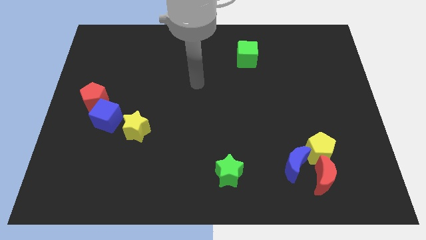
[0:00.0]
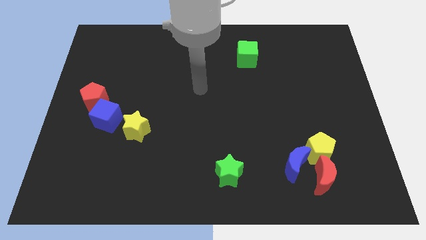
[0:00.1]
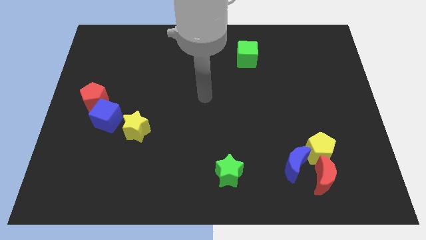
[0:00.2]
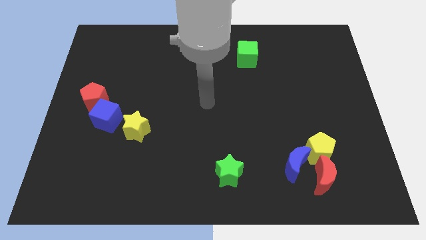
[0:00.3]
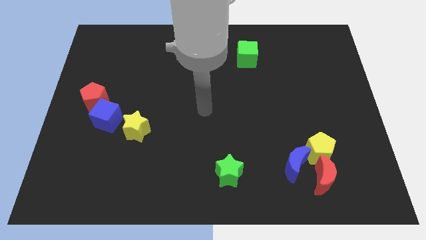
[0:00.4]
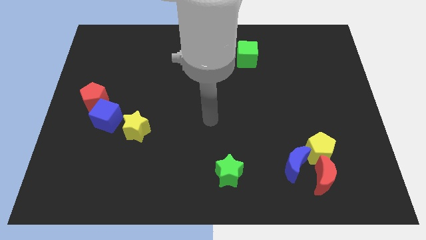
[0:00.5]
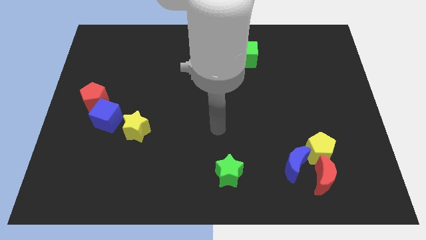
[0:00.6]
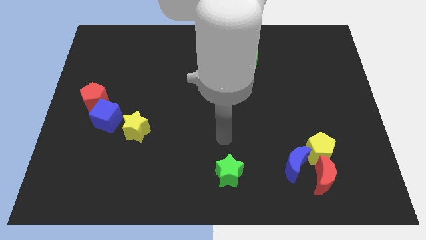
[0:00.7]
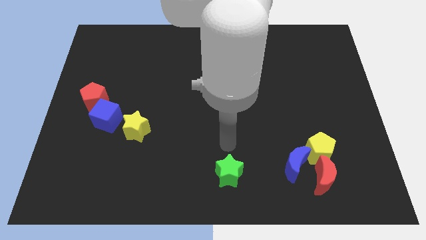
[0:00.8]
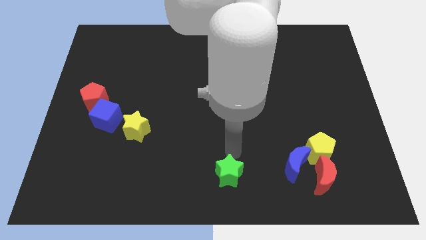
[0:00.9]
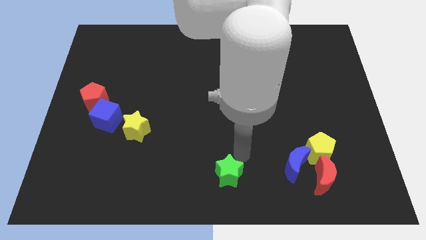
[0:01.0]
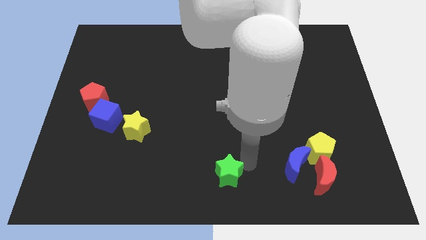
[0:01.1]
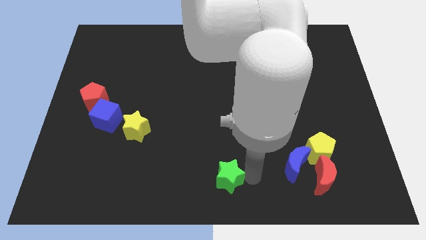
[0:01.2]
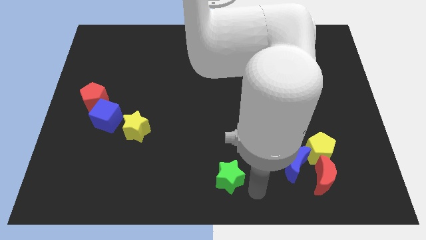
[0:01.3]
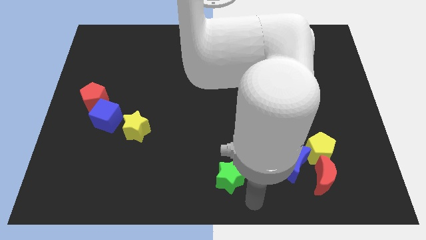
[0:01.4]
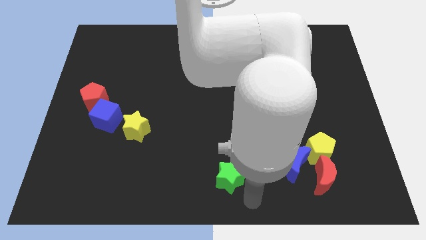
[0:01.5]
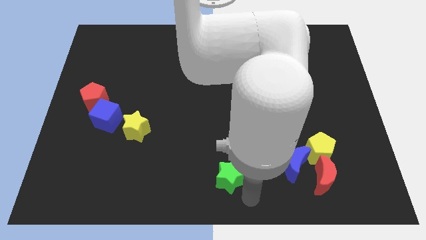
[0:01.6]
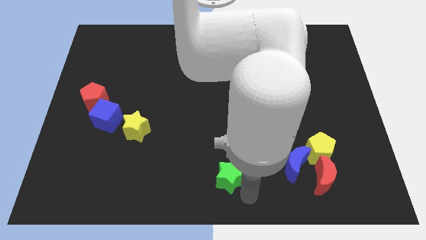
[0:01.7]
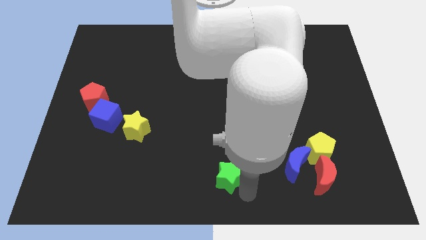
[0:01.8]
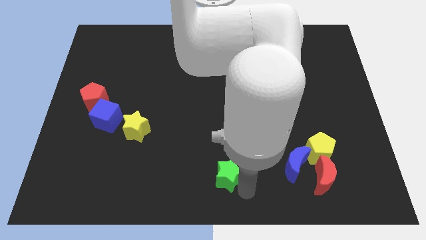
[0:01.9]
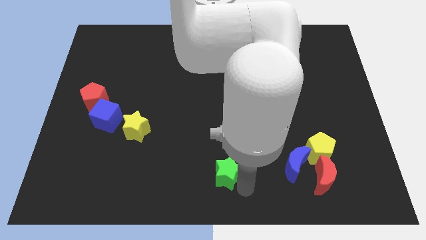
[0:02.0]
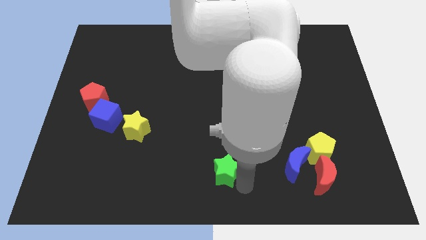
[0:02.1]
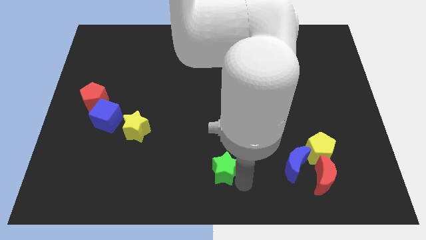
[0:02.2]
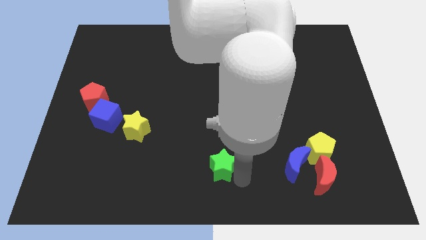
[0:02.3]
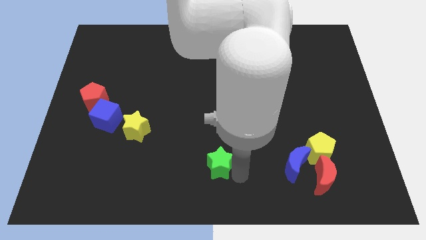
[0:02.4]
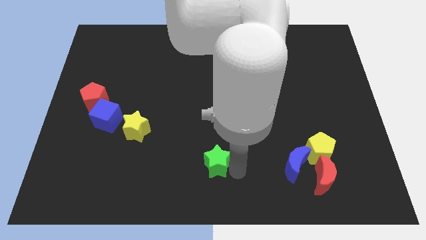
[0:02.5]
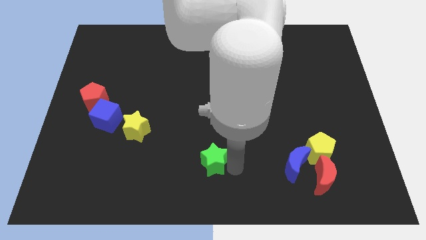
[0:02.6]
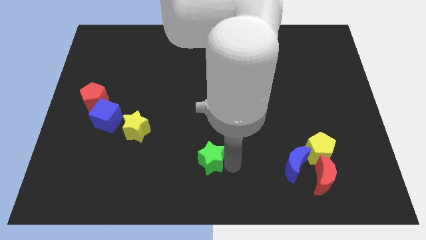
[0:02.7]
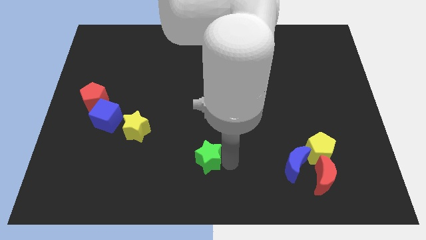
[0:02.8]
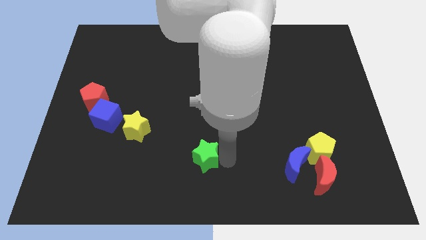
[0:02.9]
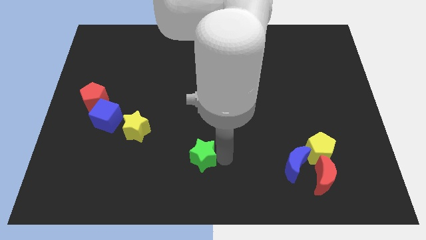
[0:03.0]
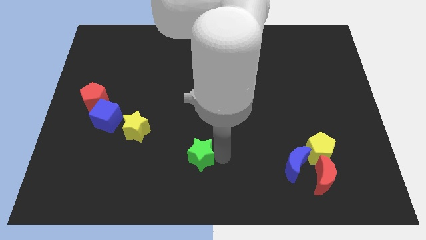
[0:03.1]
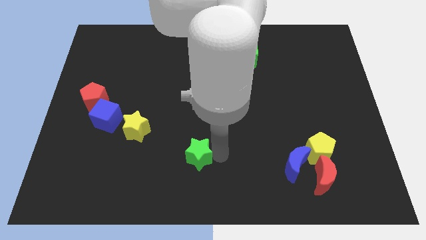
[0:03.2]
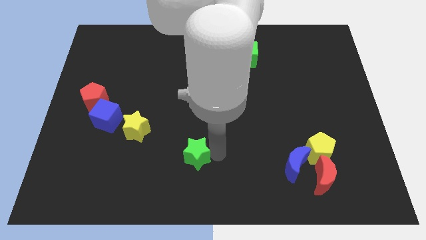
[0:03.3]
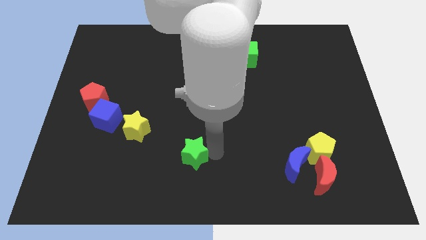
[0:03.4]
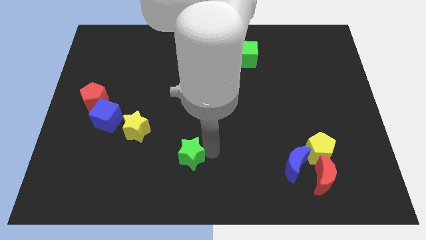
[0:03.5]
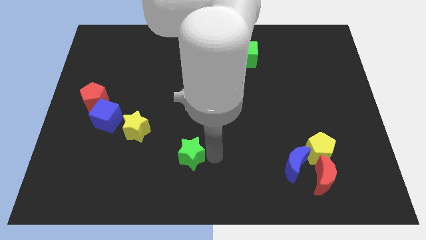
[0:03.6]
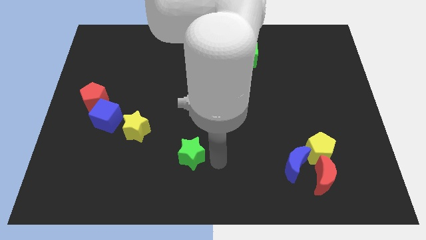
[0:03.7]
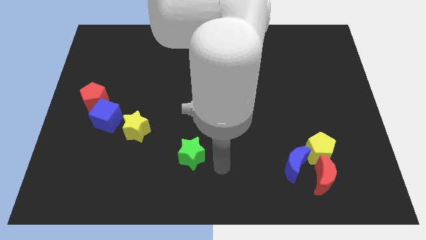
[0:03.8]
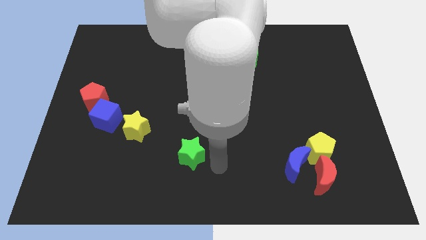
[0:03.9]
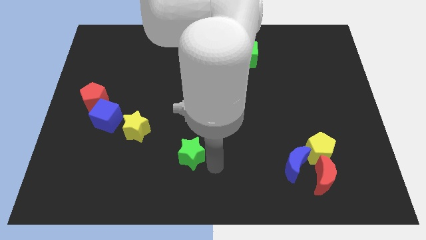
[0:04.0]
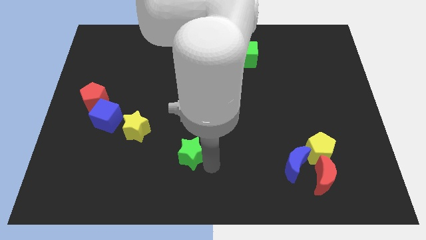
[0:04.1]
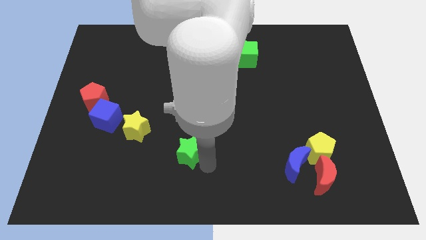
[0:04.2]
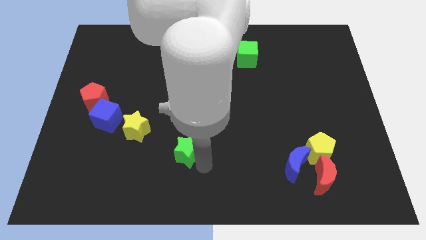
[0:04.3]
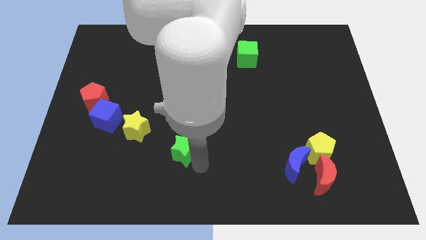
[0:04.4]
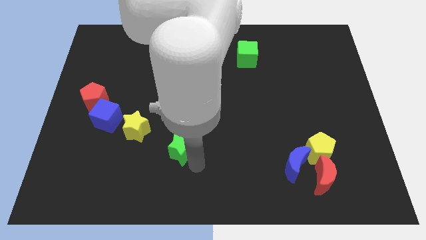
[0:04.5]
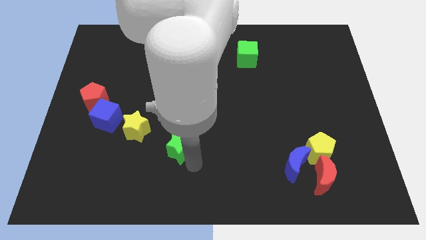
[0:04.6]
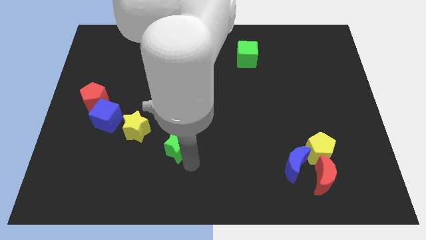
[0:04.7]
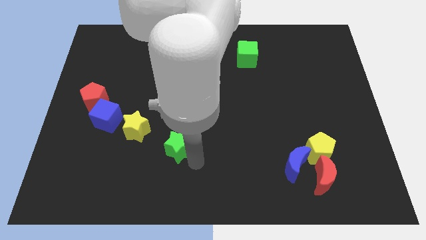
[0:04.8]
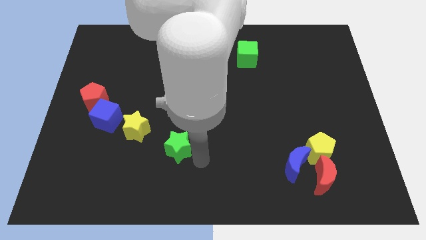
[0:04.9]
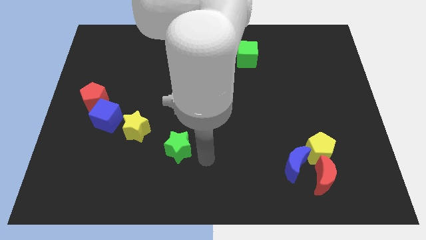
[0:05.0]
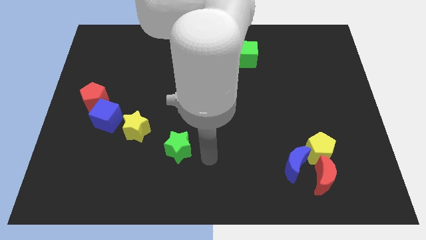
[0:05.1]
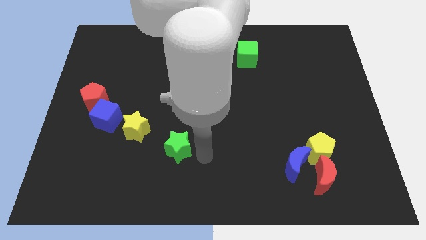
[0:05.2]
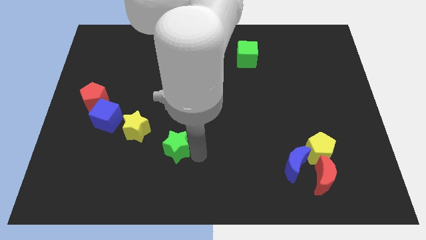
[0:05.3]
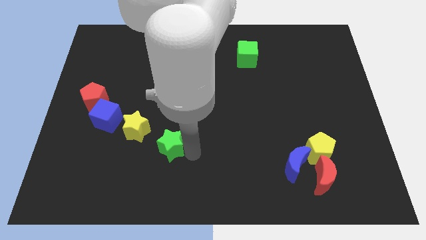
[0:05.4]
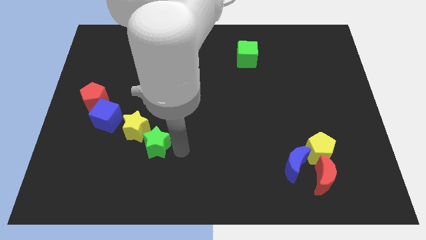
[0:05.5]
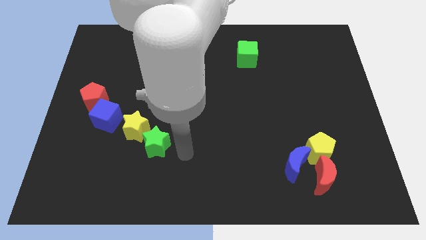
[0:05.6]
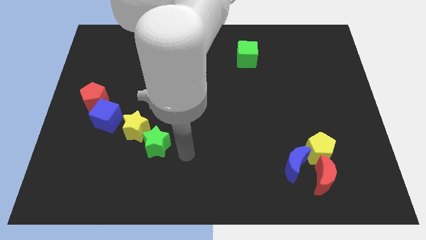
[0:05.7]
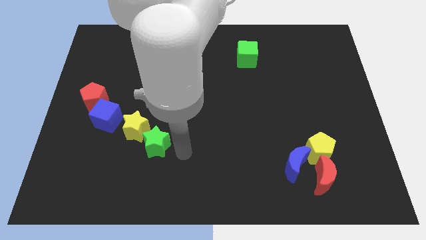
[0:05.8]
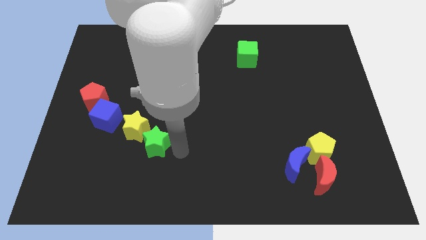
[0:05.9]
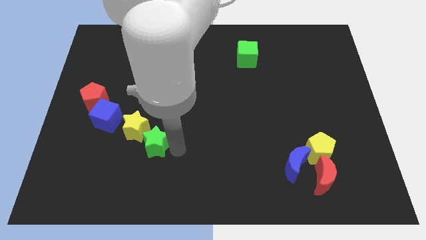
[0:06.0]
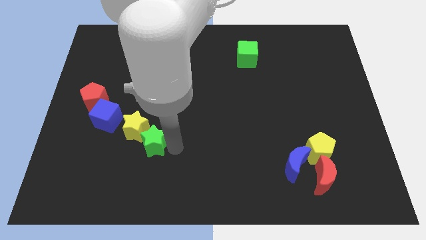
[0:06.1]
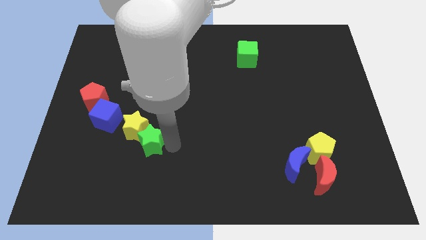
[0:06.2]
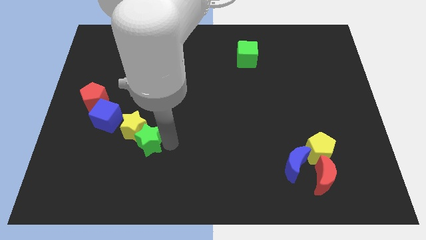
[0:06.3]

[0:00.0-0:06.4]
move the green star diagonally down and to the right of the blue cube

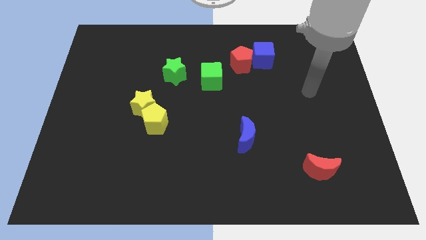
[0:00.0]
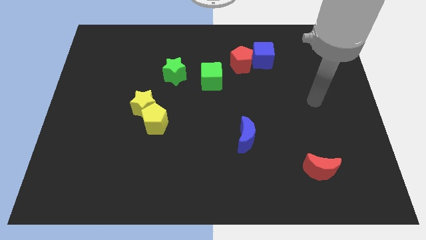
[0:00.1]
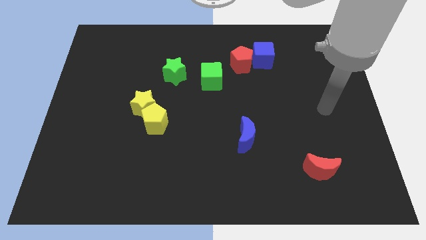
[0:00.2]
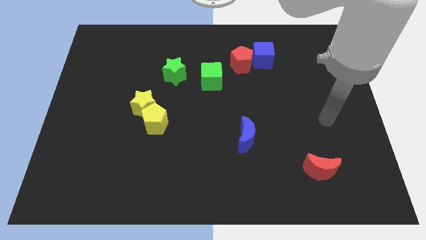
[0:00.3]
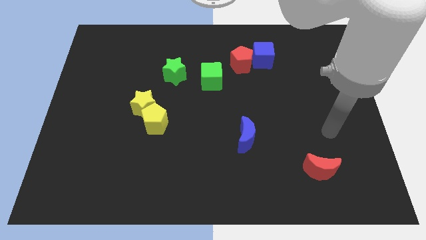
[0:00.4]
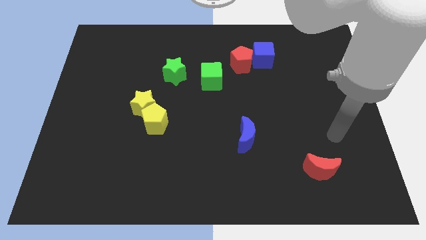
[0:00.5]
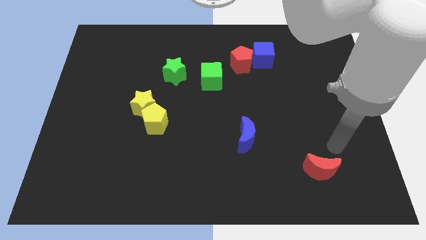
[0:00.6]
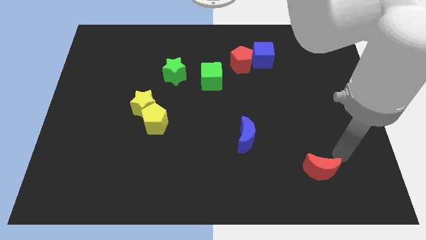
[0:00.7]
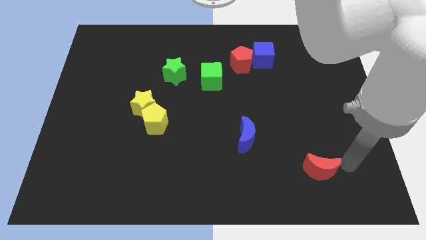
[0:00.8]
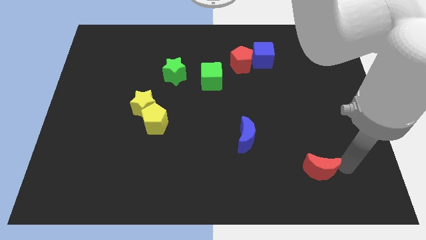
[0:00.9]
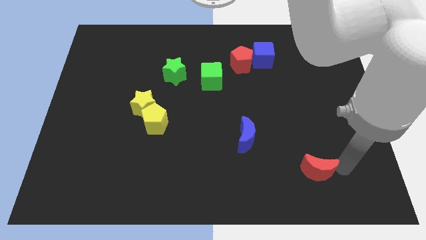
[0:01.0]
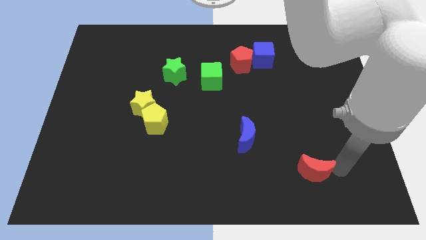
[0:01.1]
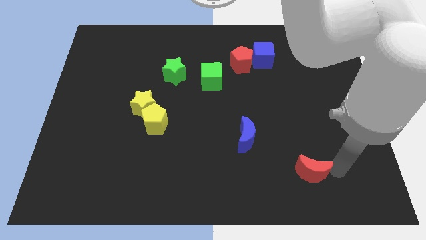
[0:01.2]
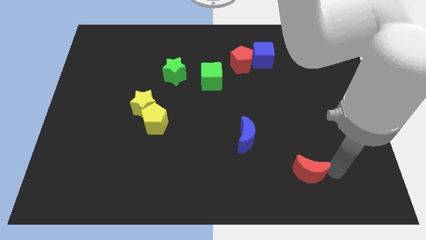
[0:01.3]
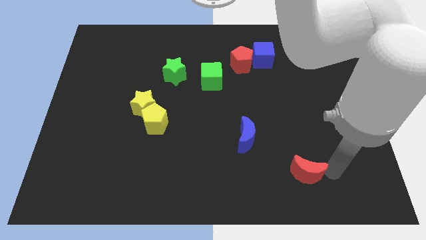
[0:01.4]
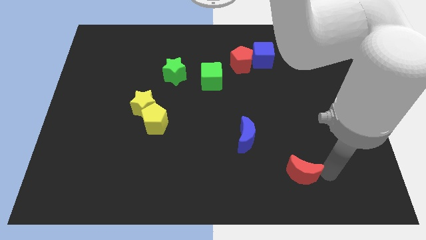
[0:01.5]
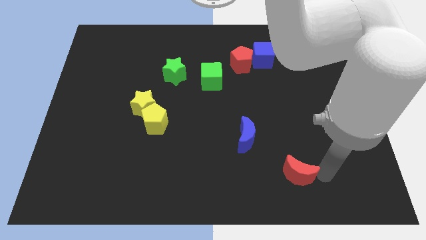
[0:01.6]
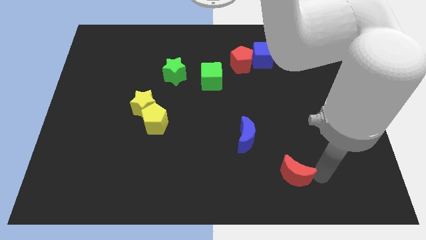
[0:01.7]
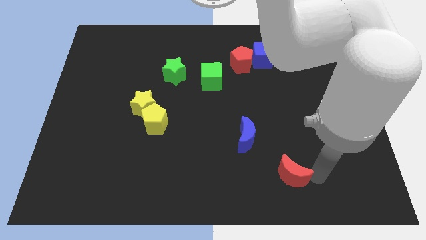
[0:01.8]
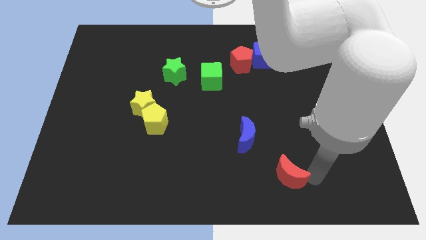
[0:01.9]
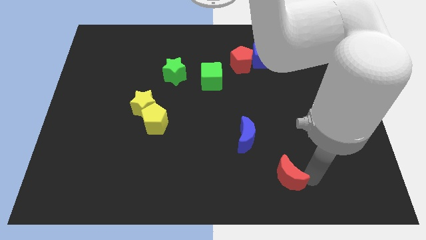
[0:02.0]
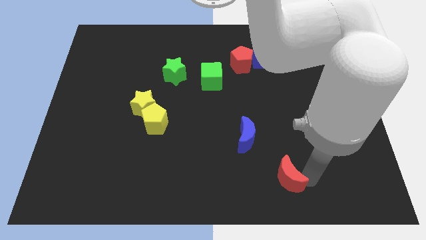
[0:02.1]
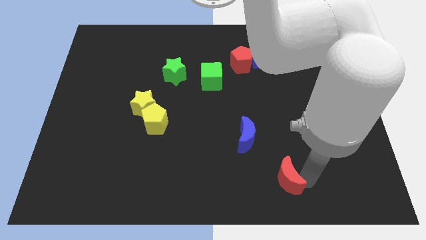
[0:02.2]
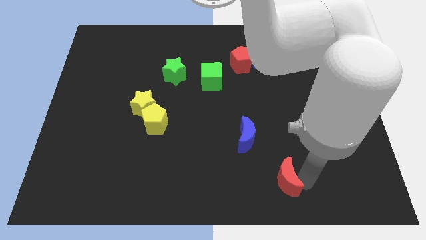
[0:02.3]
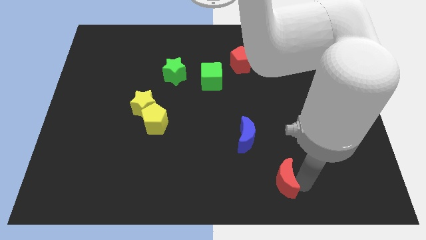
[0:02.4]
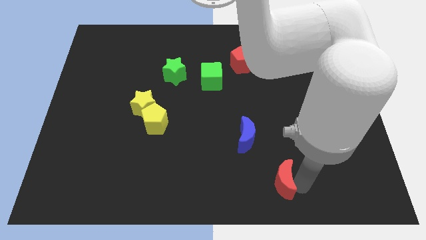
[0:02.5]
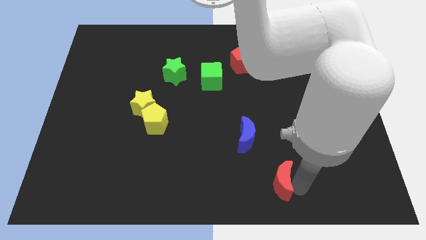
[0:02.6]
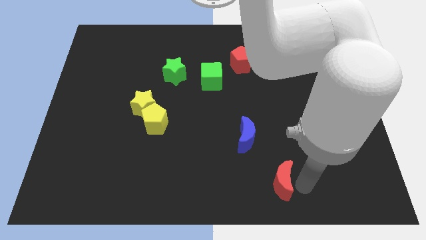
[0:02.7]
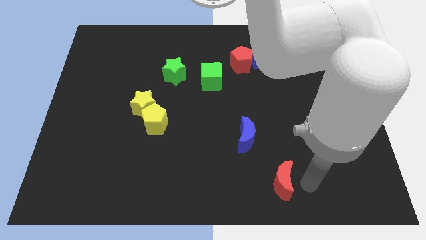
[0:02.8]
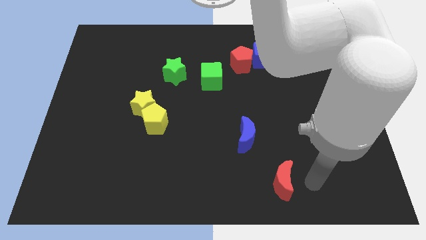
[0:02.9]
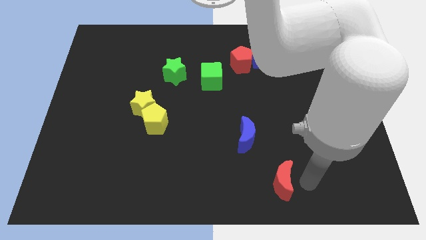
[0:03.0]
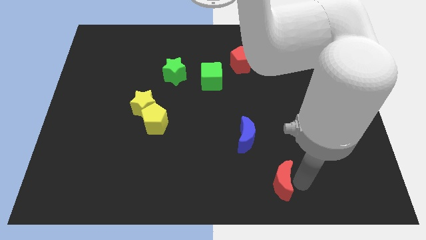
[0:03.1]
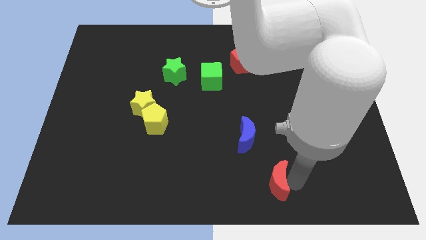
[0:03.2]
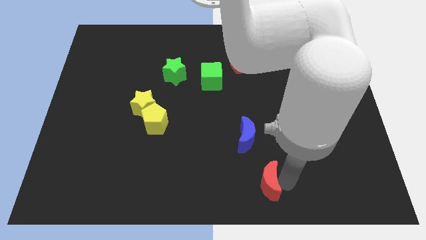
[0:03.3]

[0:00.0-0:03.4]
push the red moon to the bottom side of the blue moon
